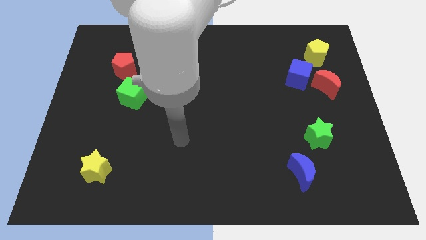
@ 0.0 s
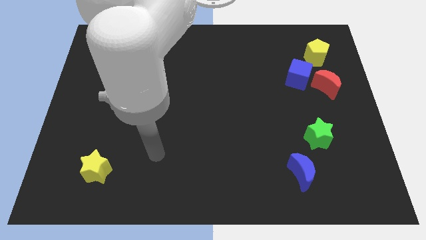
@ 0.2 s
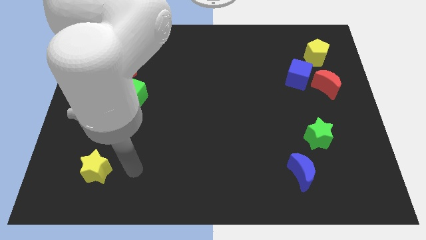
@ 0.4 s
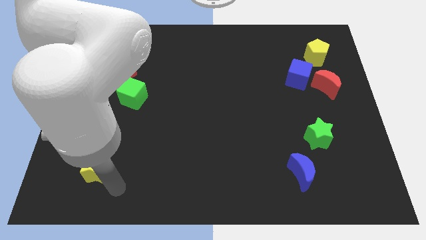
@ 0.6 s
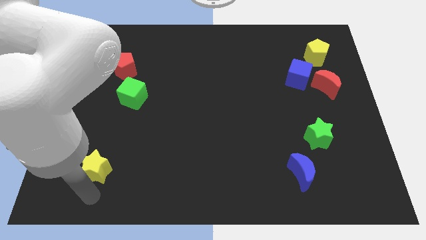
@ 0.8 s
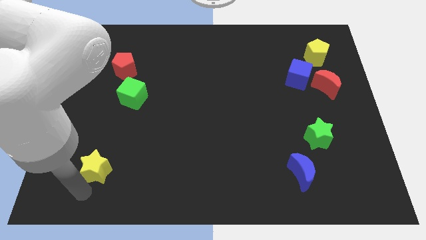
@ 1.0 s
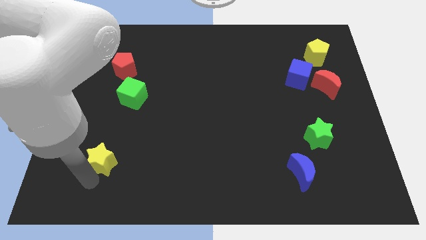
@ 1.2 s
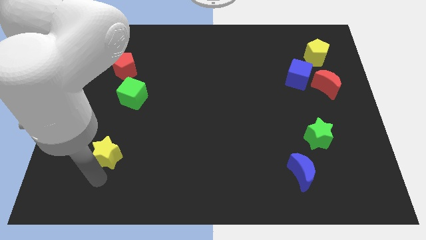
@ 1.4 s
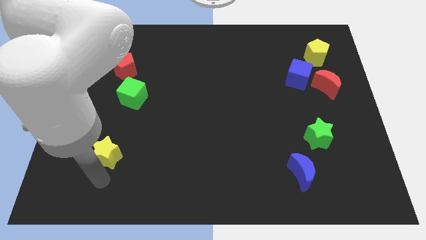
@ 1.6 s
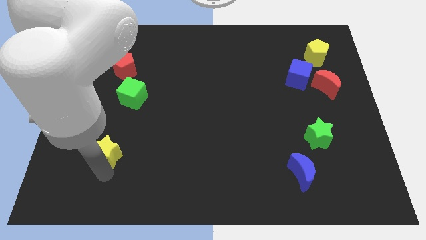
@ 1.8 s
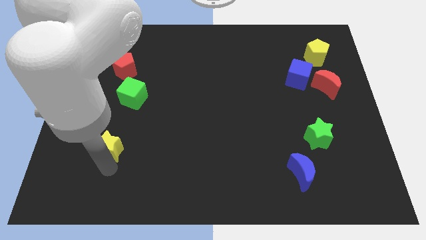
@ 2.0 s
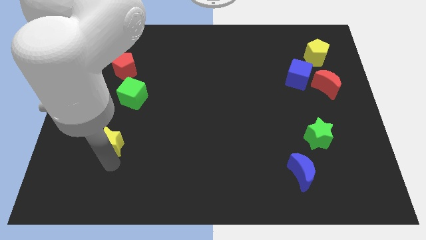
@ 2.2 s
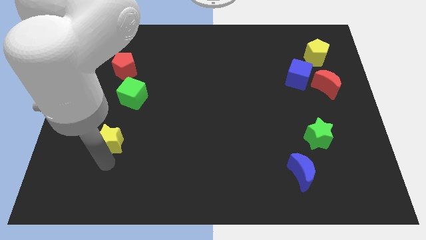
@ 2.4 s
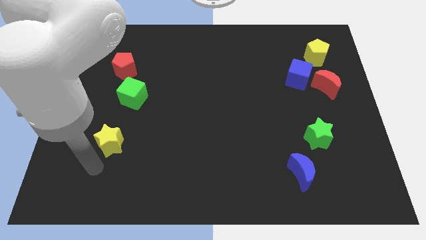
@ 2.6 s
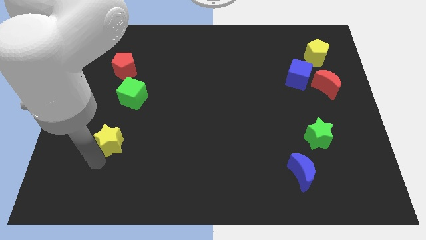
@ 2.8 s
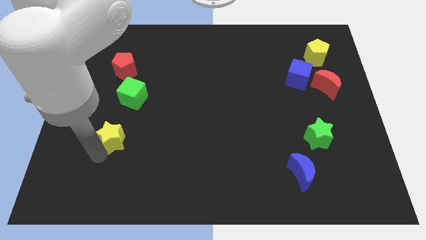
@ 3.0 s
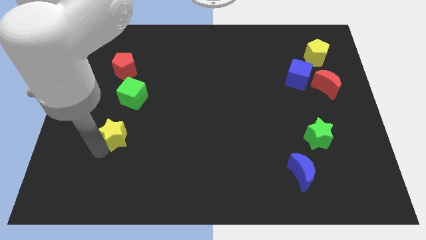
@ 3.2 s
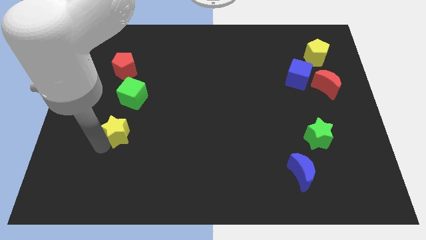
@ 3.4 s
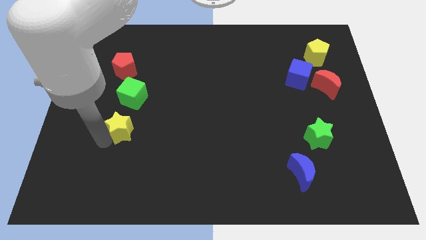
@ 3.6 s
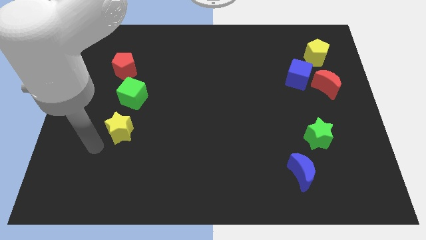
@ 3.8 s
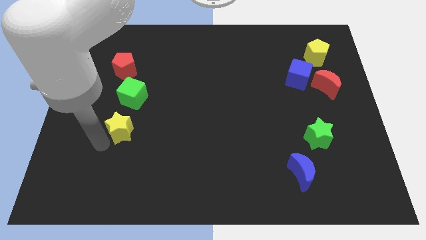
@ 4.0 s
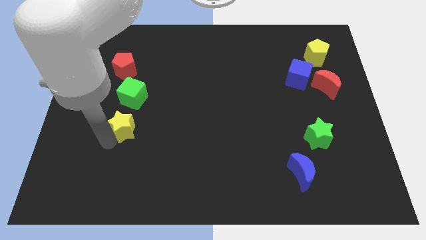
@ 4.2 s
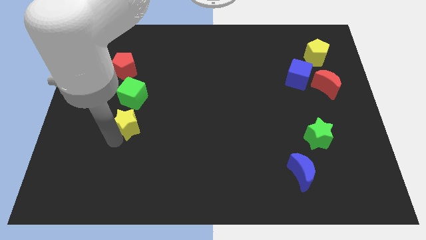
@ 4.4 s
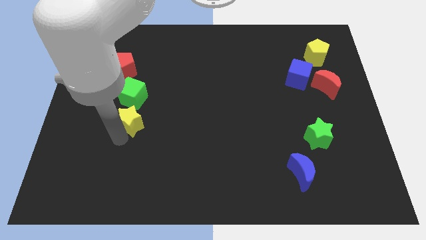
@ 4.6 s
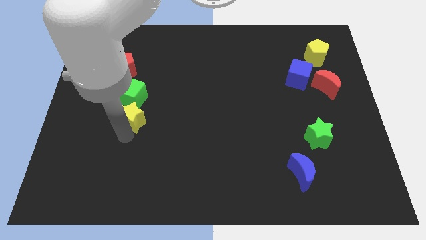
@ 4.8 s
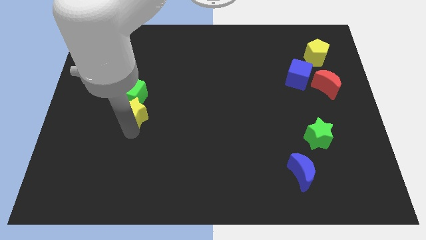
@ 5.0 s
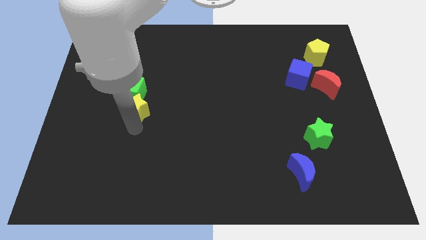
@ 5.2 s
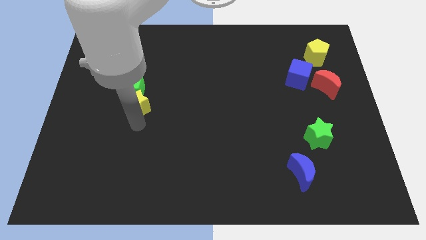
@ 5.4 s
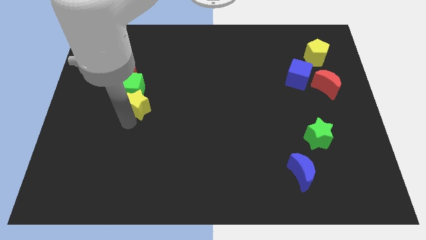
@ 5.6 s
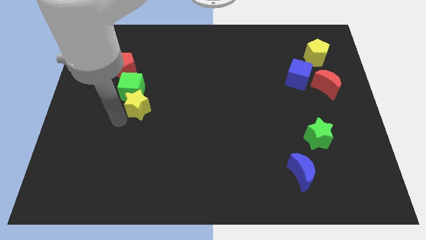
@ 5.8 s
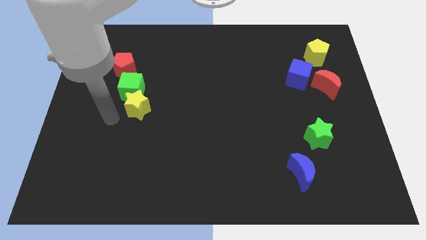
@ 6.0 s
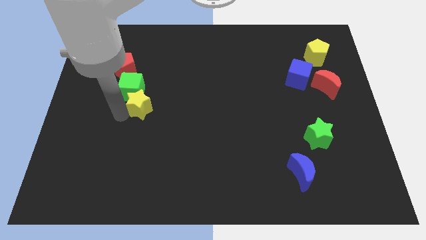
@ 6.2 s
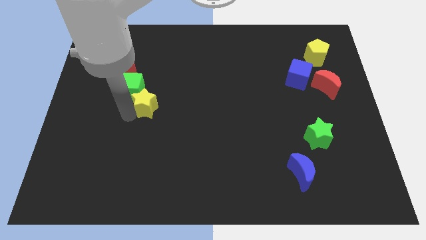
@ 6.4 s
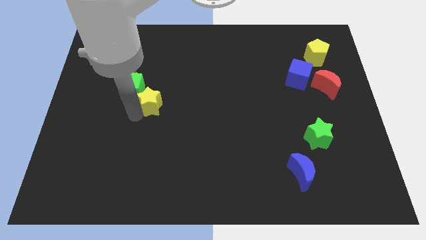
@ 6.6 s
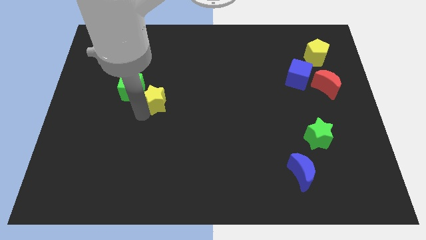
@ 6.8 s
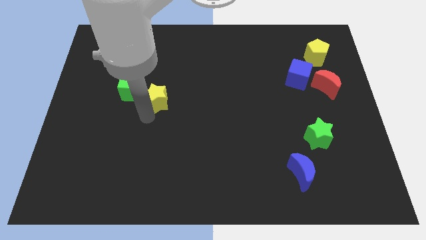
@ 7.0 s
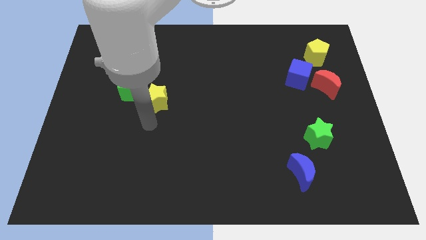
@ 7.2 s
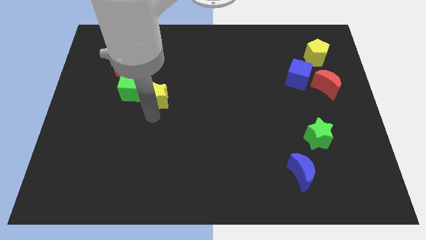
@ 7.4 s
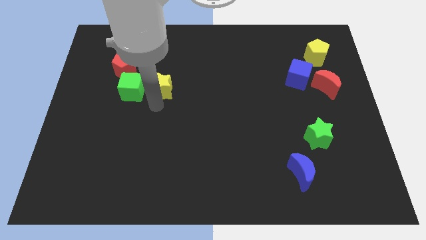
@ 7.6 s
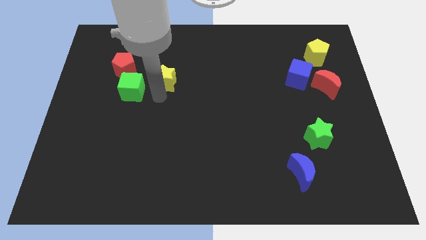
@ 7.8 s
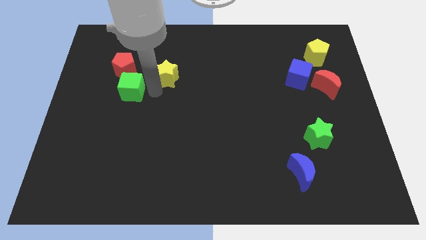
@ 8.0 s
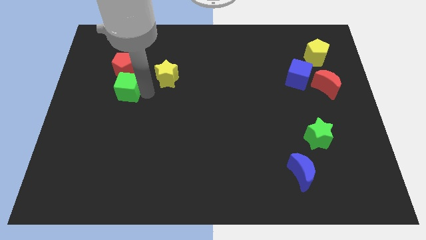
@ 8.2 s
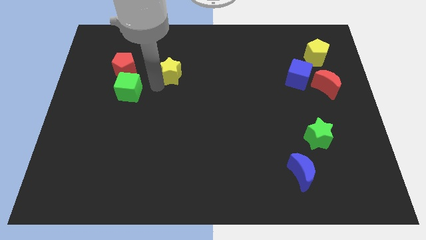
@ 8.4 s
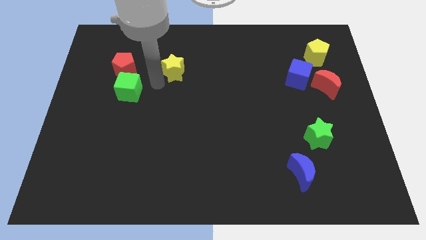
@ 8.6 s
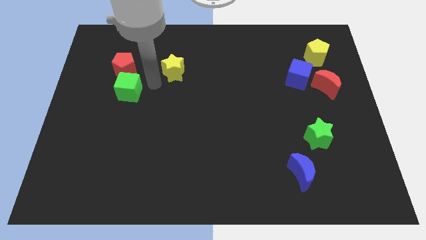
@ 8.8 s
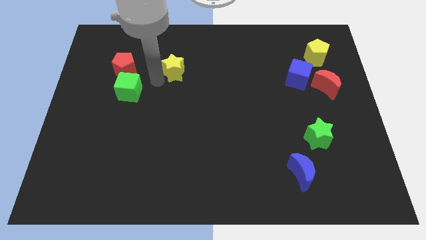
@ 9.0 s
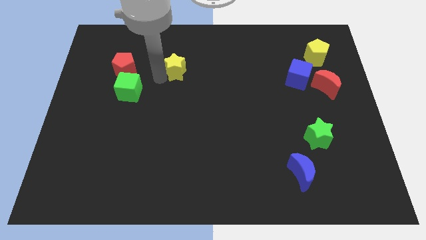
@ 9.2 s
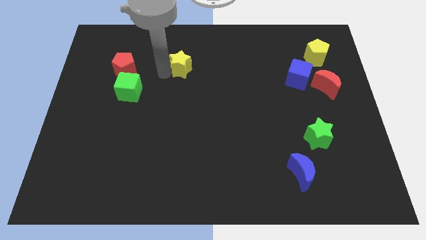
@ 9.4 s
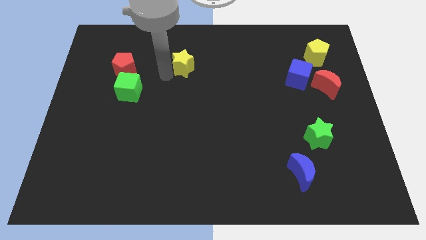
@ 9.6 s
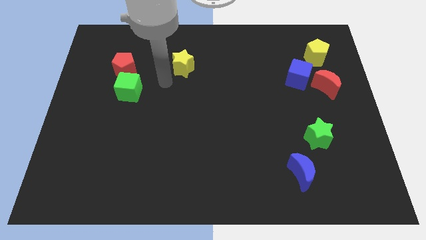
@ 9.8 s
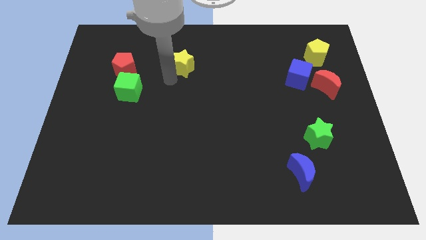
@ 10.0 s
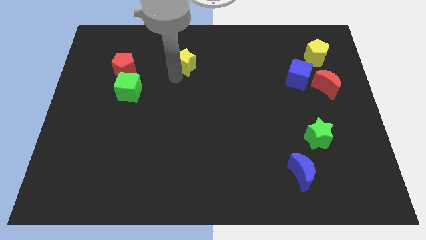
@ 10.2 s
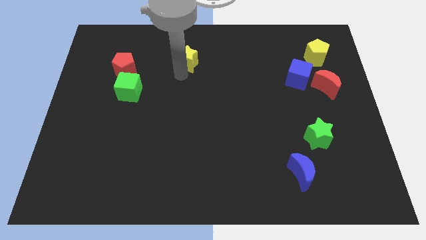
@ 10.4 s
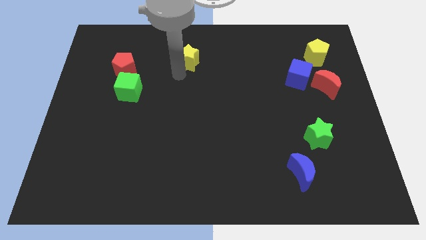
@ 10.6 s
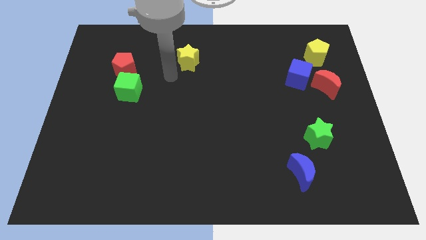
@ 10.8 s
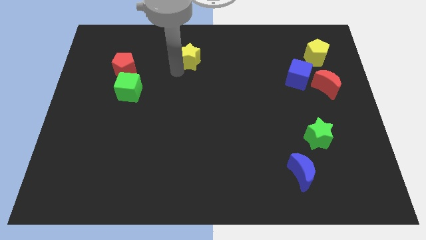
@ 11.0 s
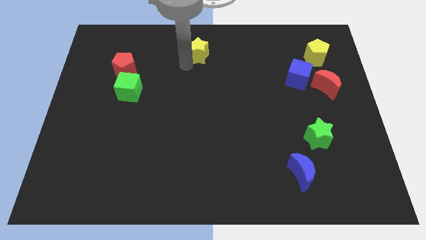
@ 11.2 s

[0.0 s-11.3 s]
push the yellow star to the towards your base
